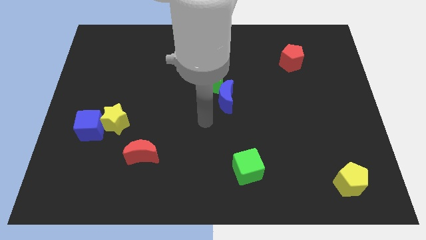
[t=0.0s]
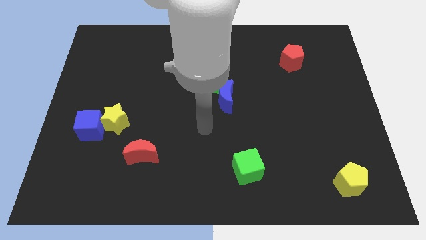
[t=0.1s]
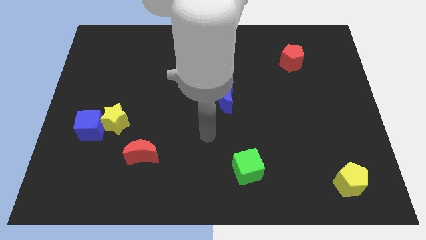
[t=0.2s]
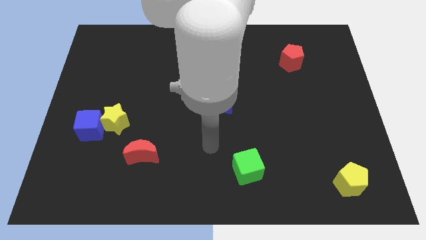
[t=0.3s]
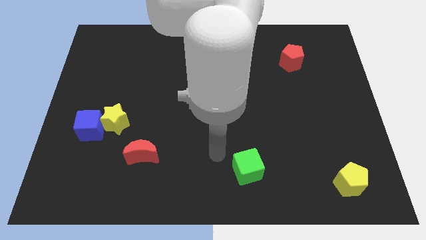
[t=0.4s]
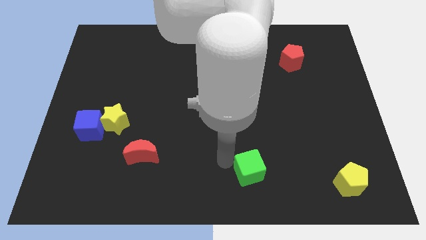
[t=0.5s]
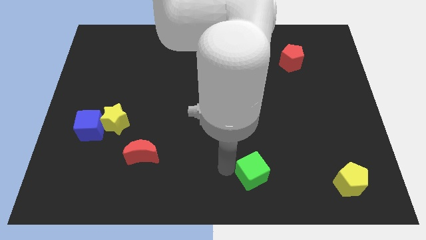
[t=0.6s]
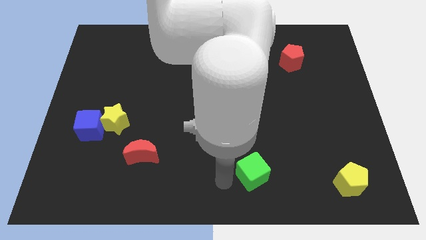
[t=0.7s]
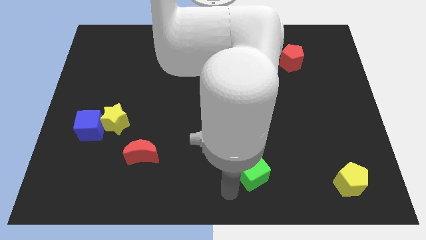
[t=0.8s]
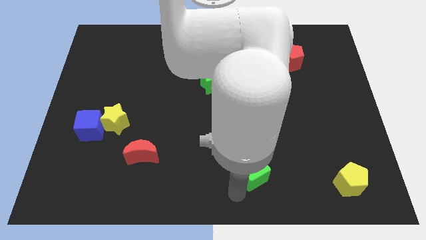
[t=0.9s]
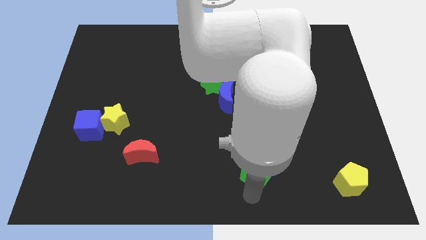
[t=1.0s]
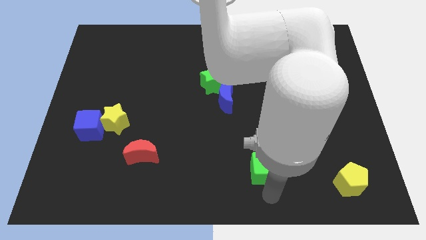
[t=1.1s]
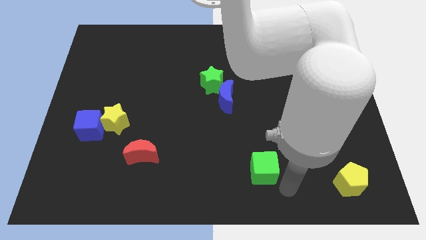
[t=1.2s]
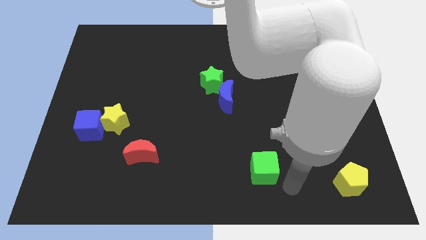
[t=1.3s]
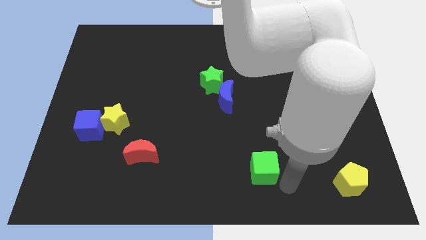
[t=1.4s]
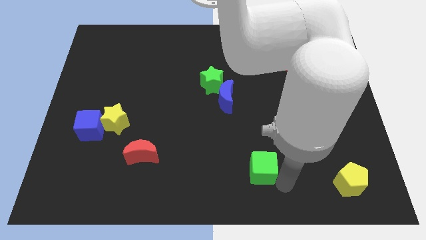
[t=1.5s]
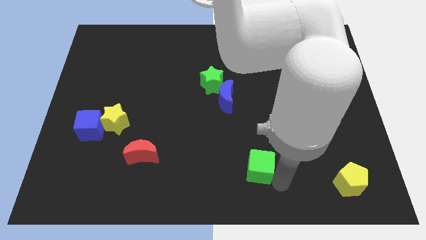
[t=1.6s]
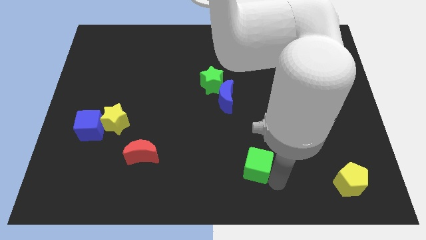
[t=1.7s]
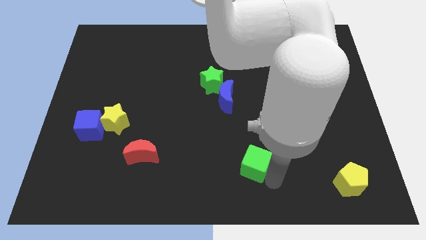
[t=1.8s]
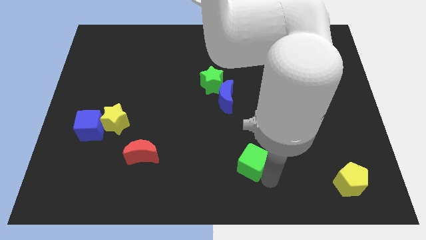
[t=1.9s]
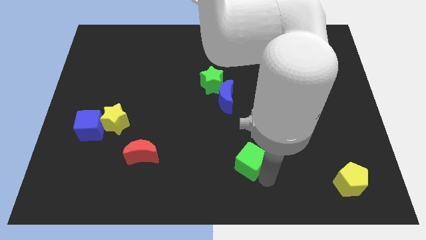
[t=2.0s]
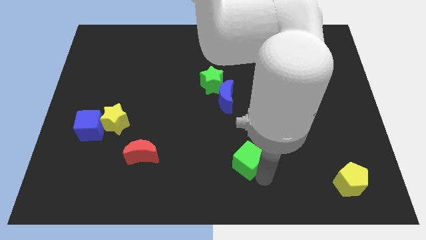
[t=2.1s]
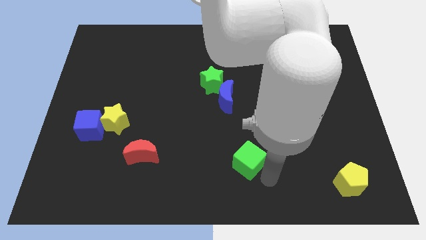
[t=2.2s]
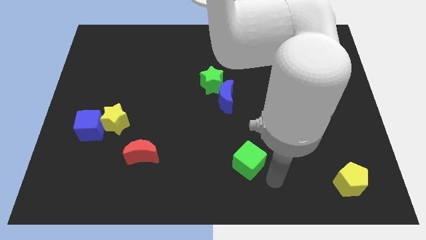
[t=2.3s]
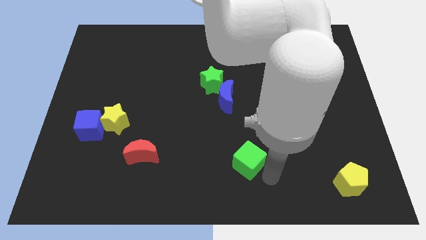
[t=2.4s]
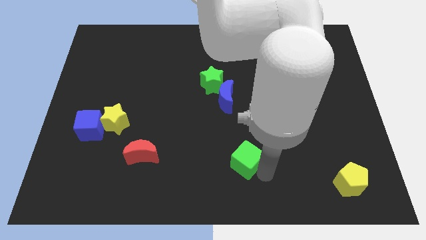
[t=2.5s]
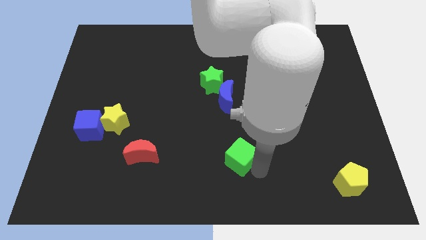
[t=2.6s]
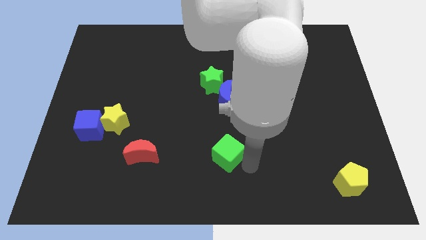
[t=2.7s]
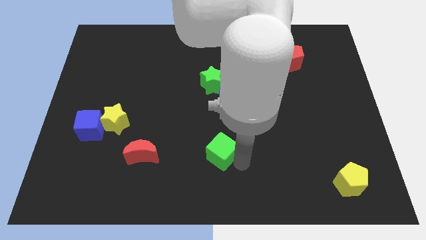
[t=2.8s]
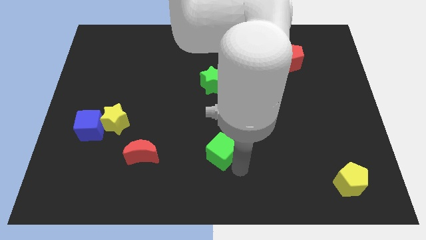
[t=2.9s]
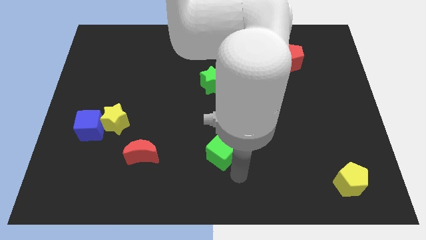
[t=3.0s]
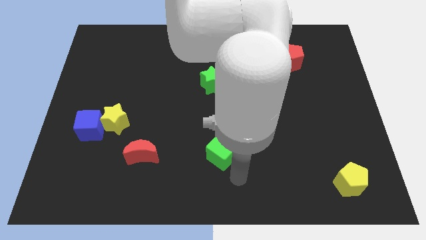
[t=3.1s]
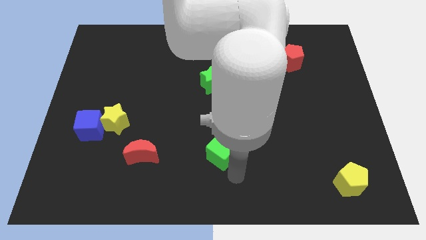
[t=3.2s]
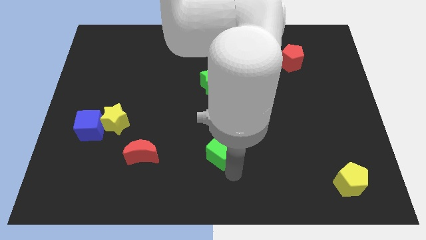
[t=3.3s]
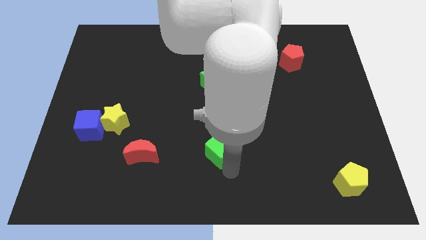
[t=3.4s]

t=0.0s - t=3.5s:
move the green cube up and to the left a little bit

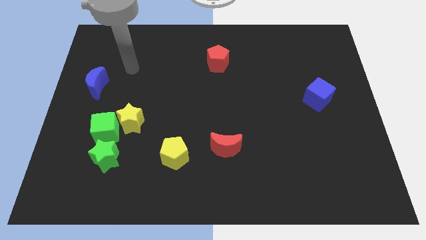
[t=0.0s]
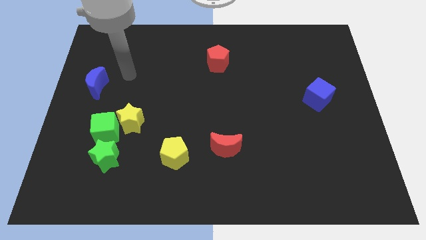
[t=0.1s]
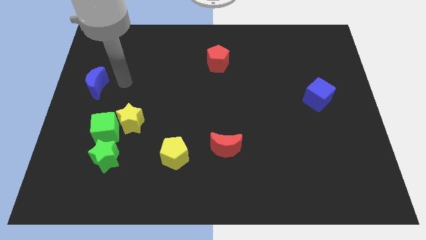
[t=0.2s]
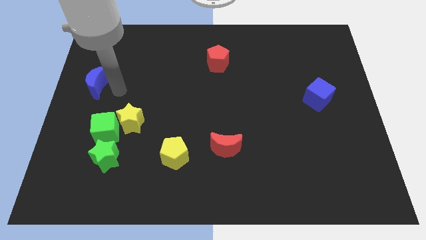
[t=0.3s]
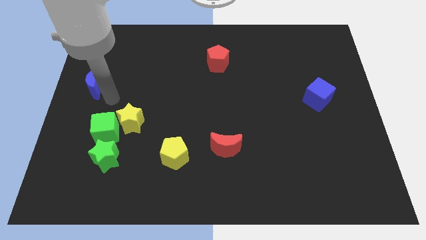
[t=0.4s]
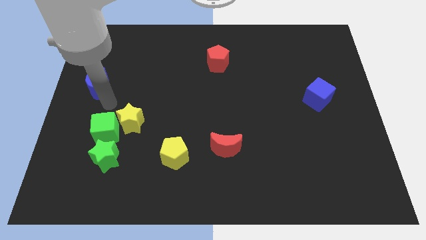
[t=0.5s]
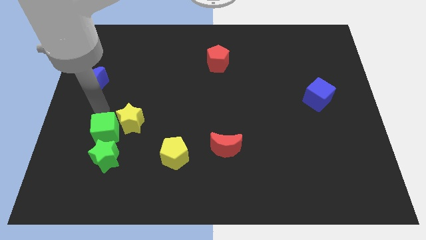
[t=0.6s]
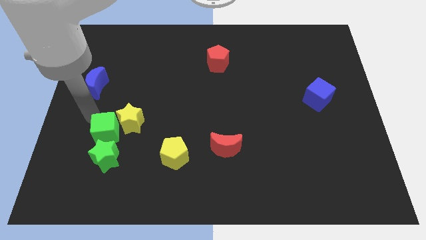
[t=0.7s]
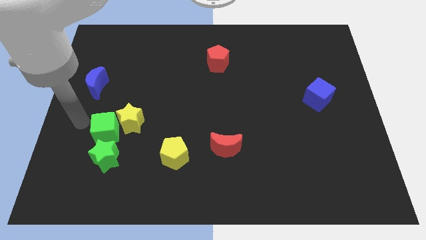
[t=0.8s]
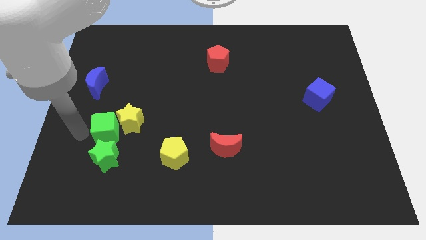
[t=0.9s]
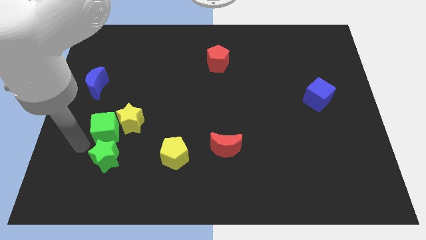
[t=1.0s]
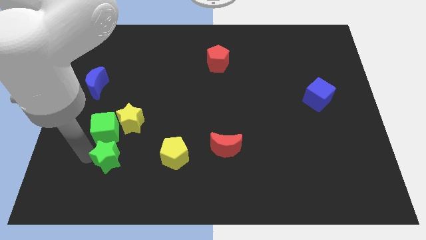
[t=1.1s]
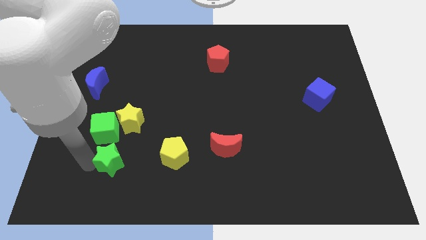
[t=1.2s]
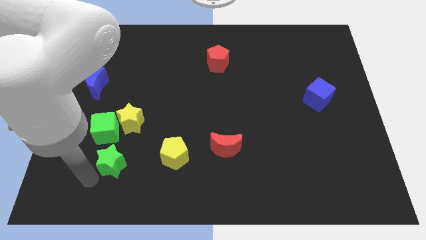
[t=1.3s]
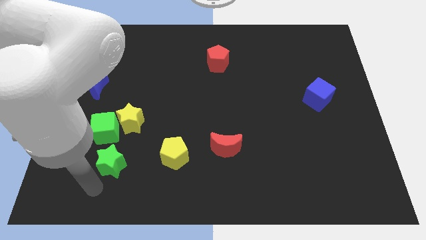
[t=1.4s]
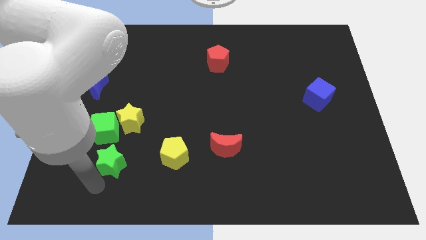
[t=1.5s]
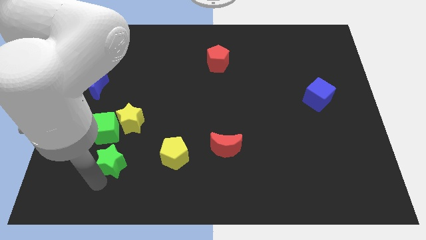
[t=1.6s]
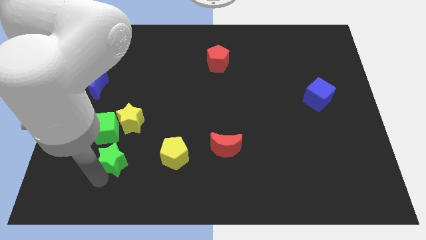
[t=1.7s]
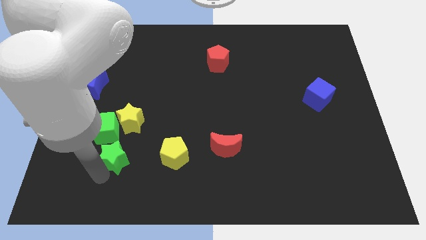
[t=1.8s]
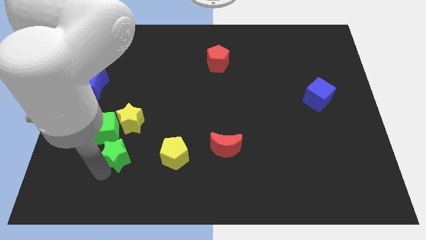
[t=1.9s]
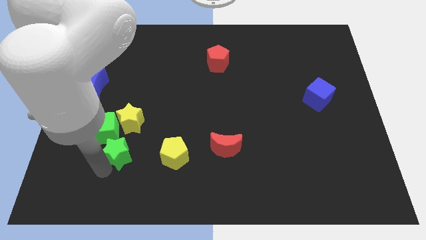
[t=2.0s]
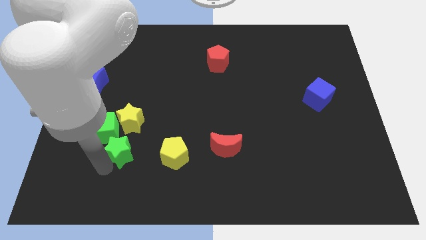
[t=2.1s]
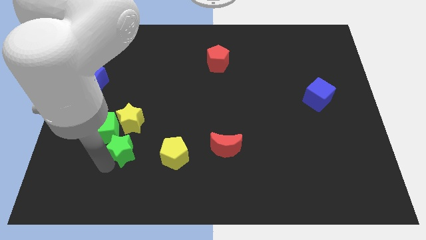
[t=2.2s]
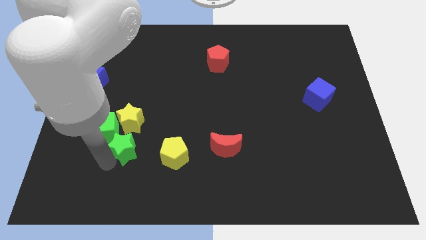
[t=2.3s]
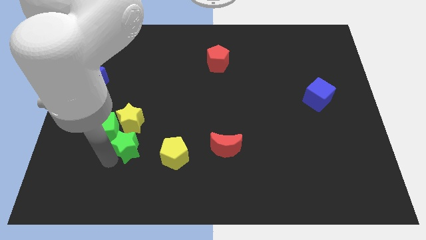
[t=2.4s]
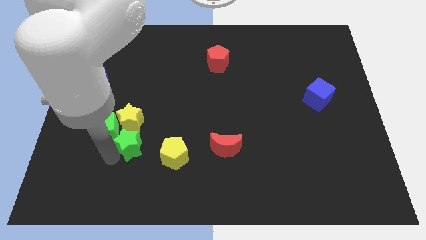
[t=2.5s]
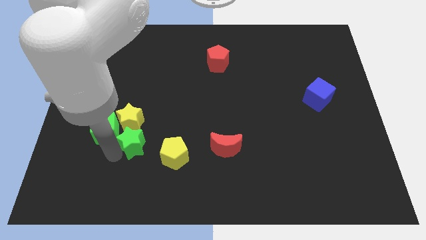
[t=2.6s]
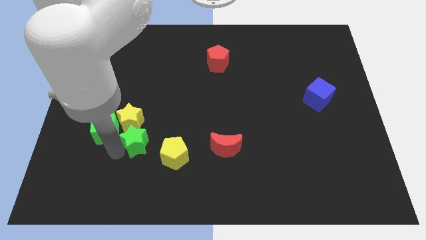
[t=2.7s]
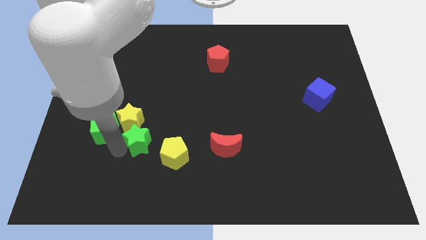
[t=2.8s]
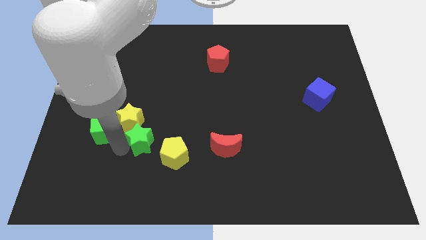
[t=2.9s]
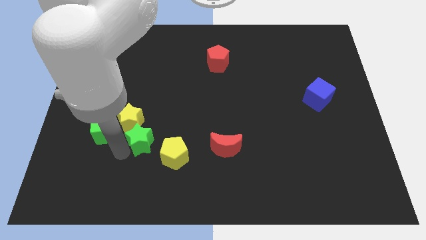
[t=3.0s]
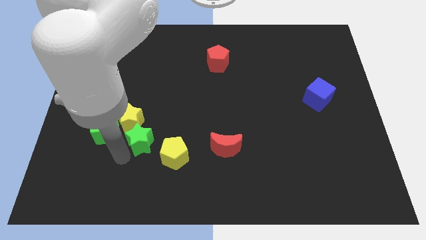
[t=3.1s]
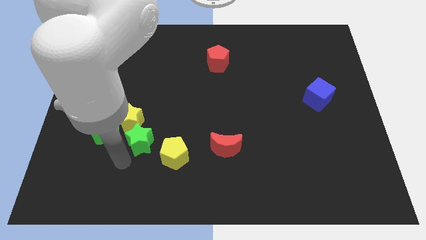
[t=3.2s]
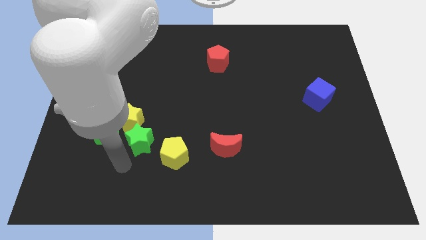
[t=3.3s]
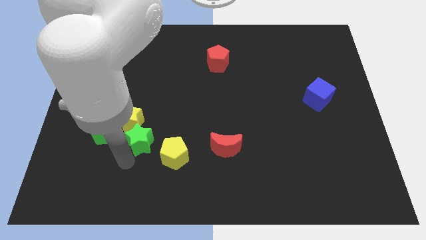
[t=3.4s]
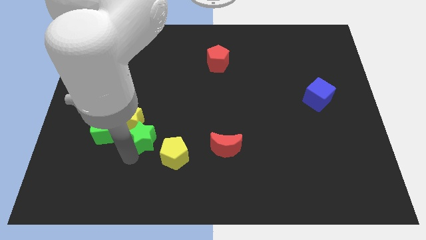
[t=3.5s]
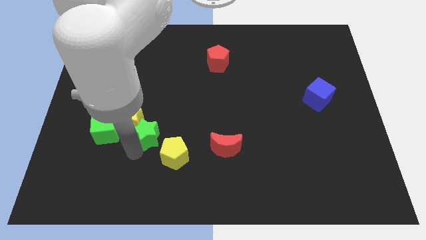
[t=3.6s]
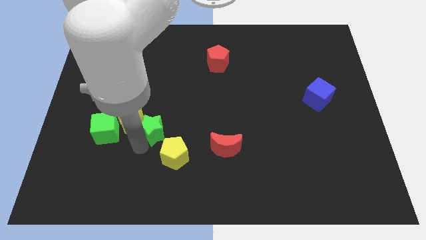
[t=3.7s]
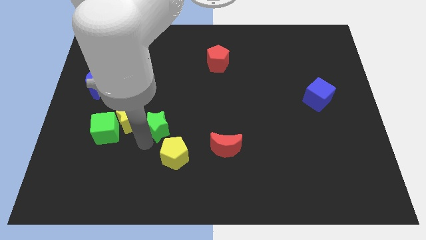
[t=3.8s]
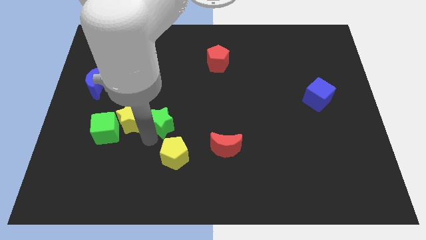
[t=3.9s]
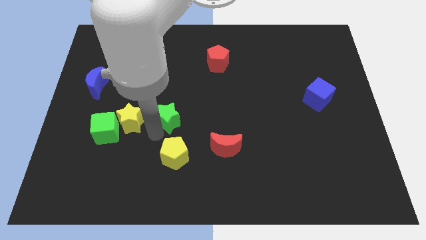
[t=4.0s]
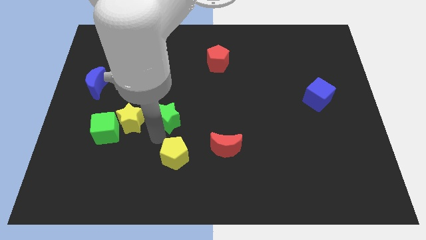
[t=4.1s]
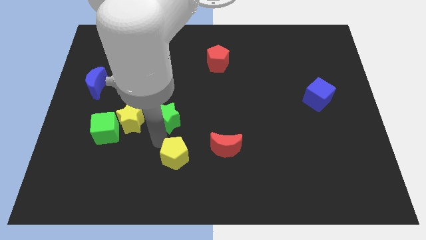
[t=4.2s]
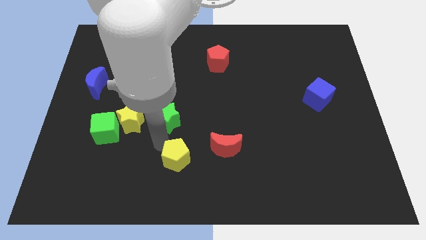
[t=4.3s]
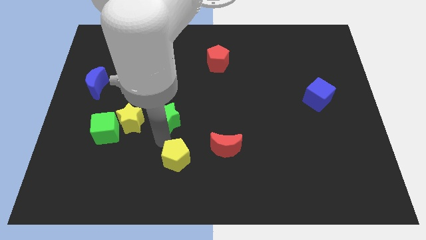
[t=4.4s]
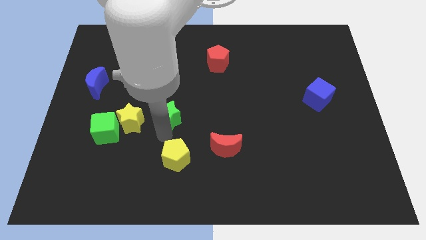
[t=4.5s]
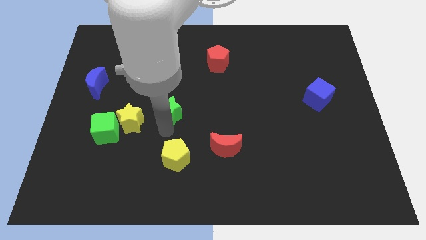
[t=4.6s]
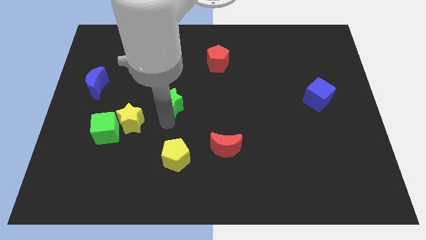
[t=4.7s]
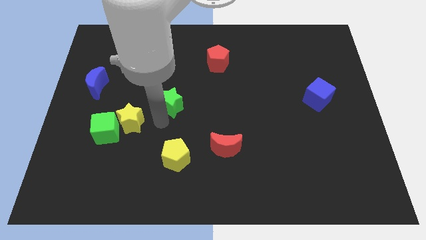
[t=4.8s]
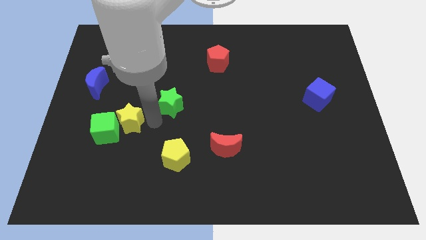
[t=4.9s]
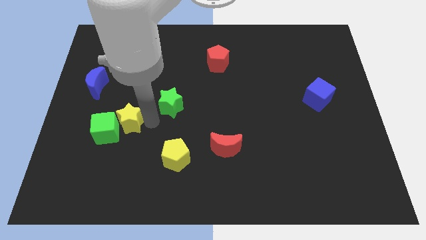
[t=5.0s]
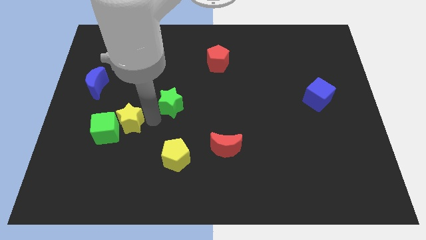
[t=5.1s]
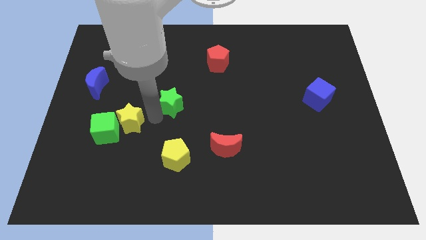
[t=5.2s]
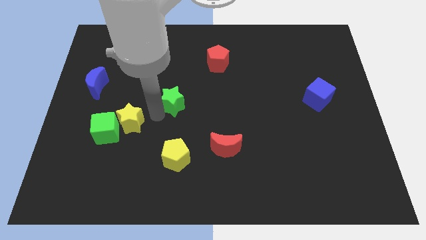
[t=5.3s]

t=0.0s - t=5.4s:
push the green star up and then right
